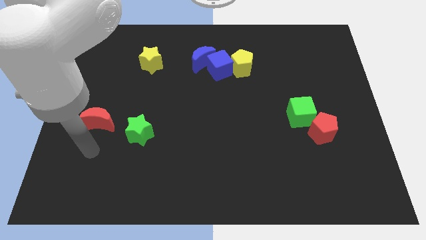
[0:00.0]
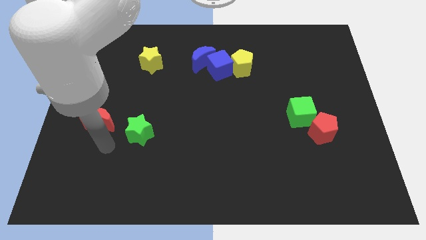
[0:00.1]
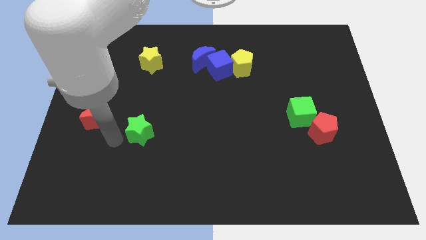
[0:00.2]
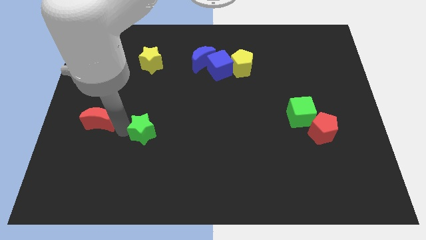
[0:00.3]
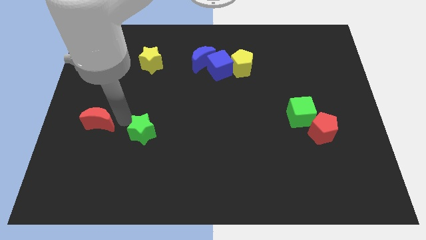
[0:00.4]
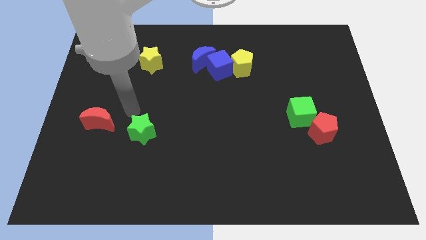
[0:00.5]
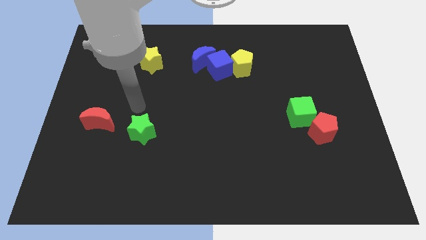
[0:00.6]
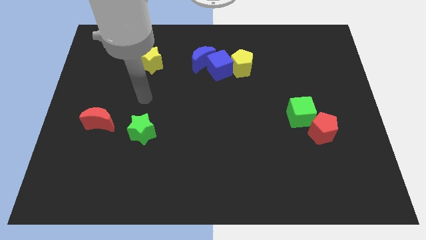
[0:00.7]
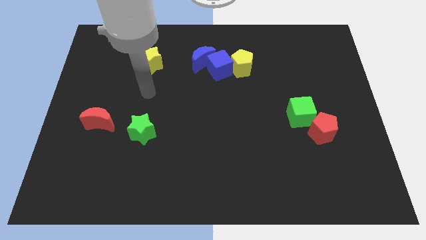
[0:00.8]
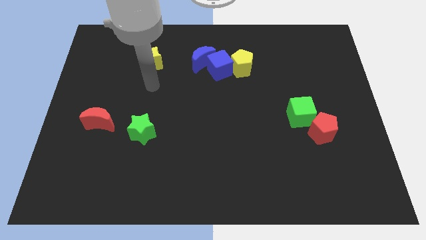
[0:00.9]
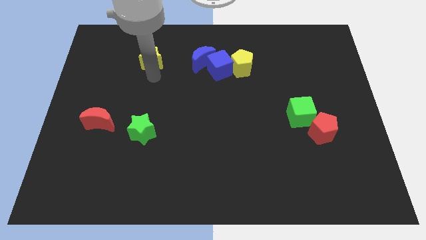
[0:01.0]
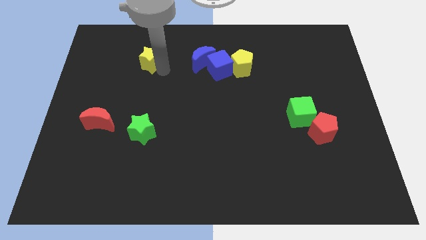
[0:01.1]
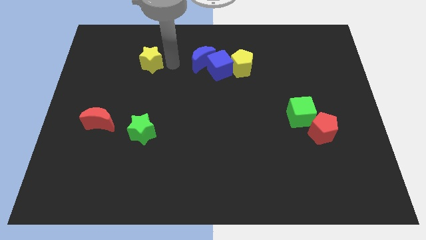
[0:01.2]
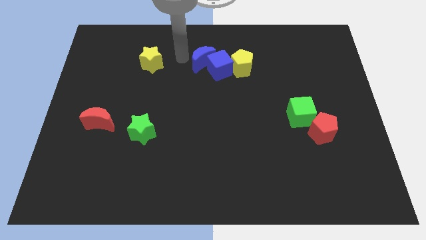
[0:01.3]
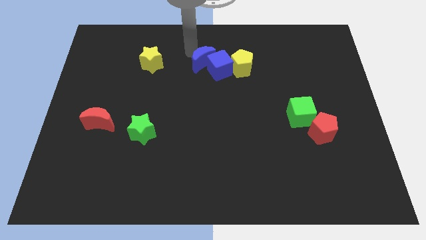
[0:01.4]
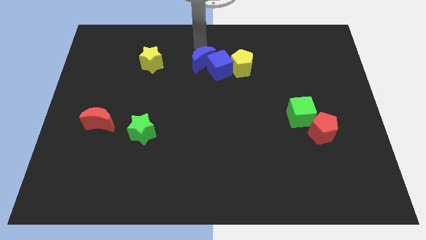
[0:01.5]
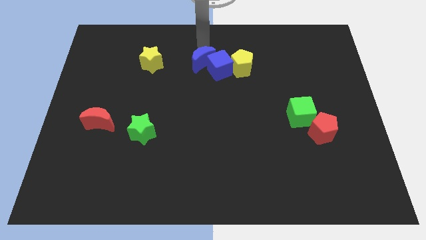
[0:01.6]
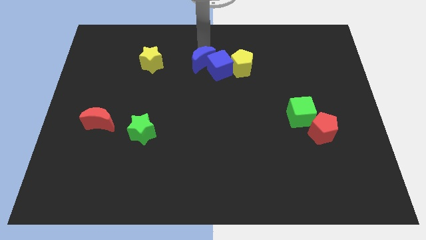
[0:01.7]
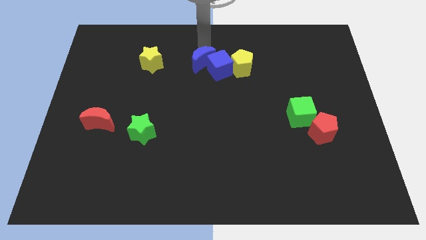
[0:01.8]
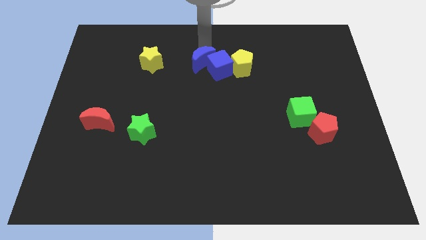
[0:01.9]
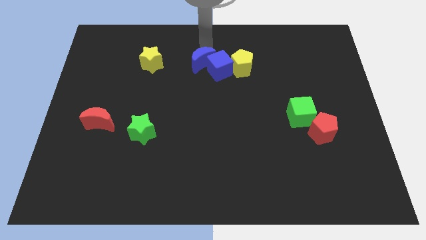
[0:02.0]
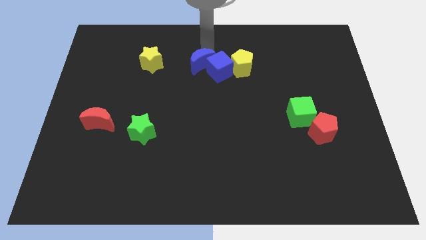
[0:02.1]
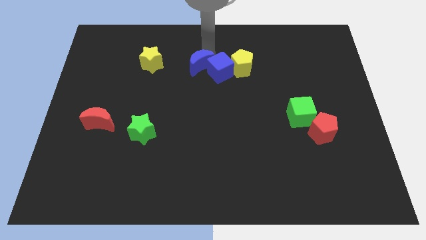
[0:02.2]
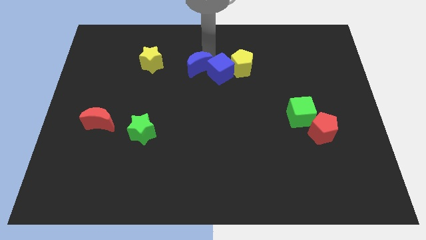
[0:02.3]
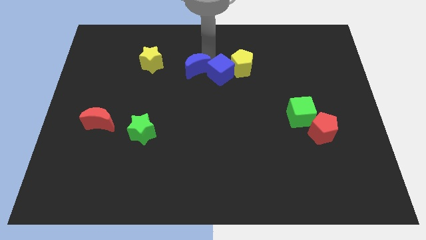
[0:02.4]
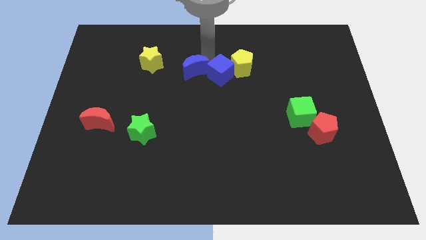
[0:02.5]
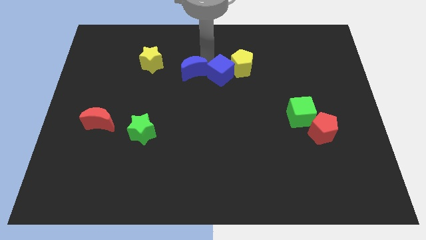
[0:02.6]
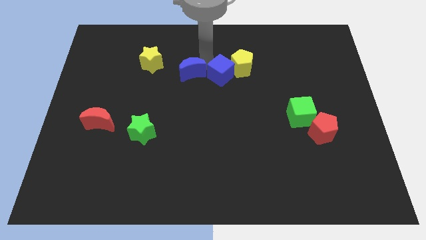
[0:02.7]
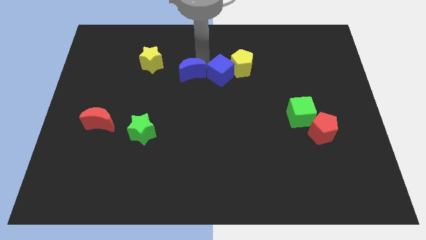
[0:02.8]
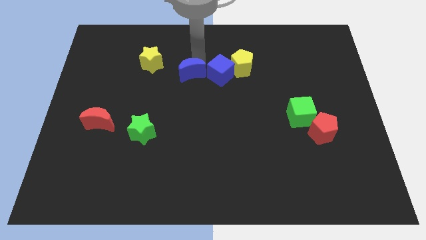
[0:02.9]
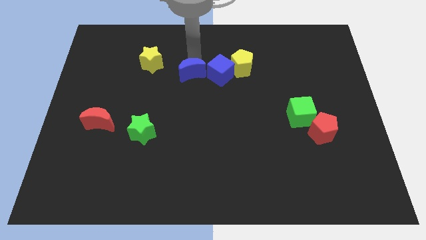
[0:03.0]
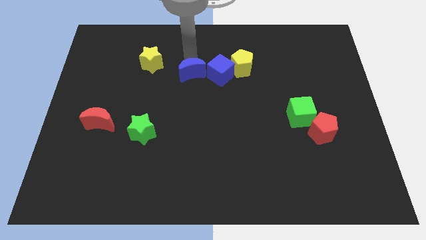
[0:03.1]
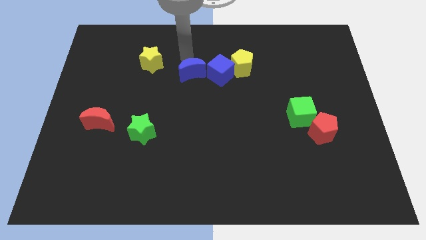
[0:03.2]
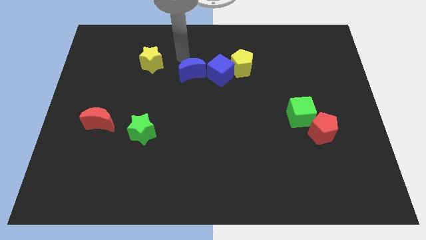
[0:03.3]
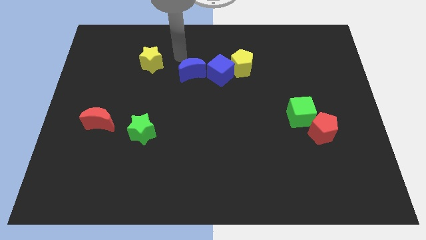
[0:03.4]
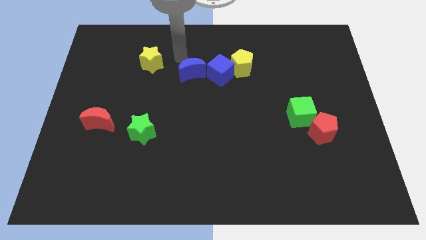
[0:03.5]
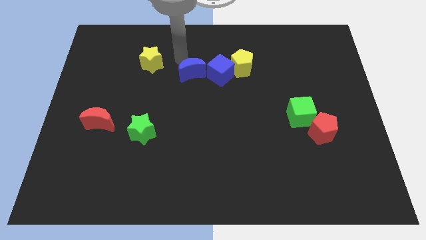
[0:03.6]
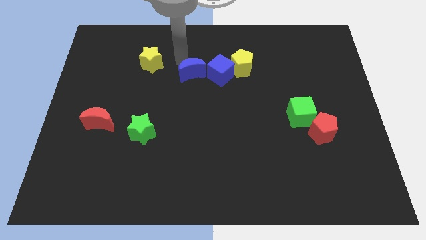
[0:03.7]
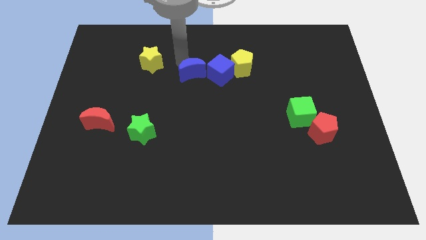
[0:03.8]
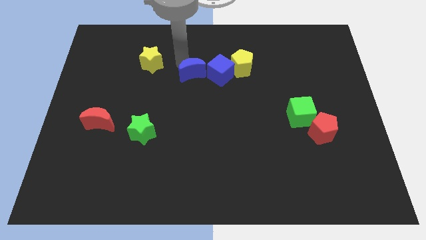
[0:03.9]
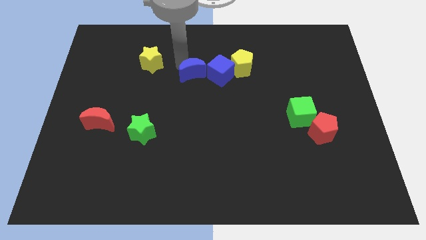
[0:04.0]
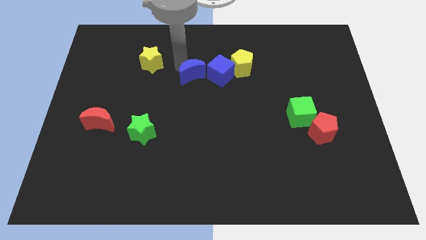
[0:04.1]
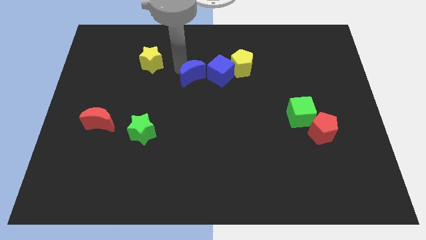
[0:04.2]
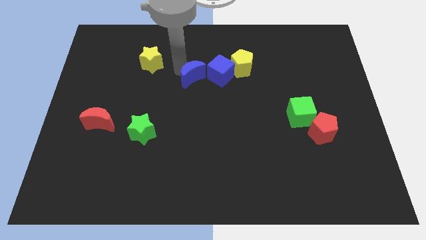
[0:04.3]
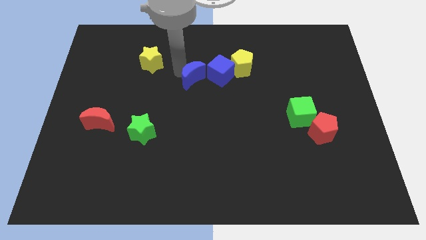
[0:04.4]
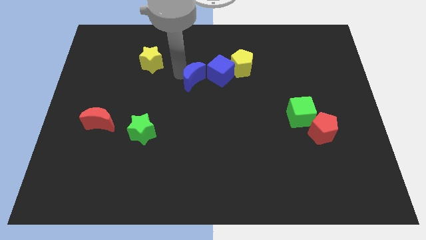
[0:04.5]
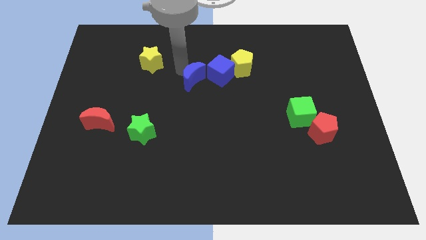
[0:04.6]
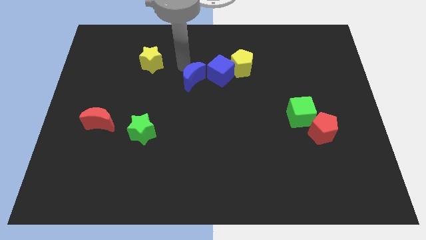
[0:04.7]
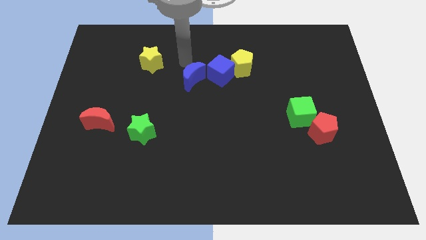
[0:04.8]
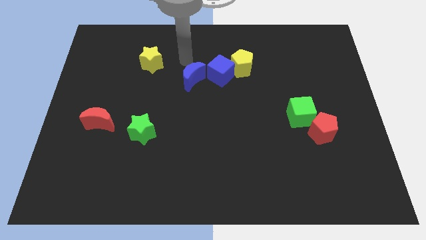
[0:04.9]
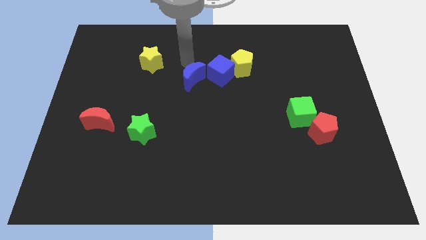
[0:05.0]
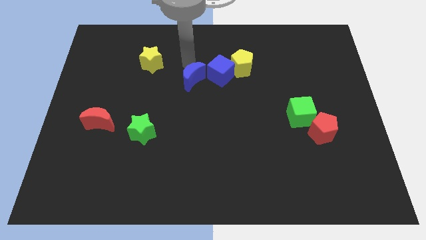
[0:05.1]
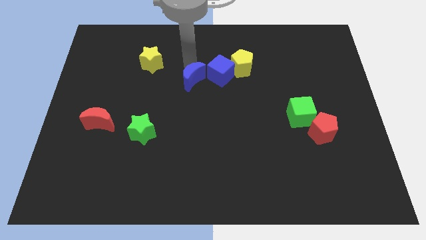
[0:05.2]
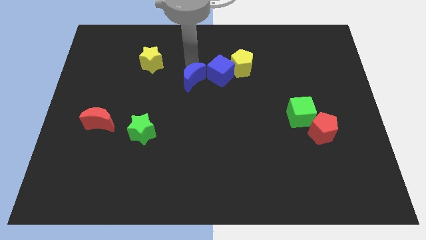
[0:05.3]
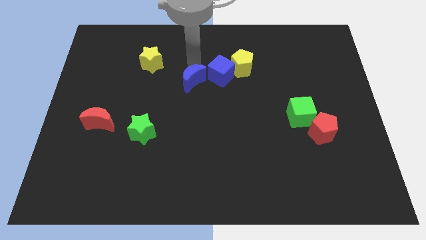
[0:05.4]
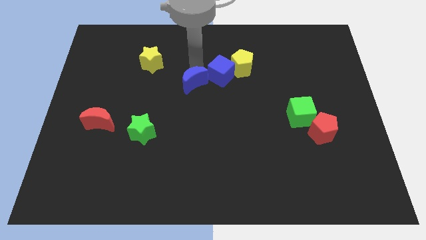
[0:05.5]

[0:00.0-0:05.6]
slide the blue moon somewhat down

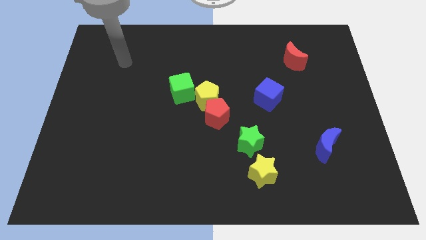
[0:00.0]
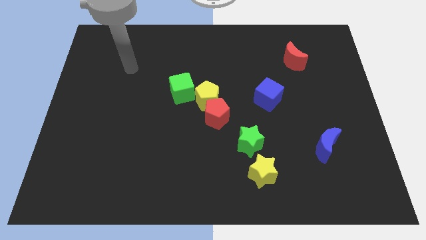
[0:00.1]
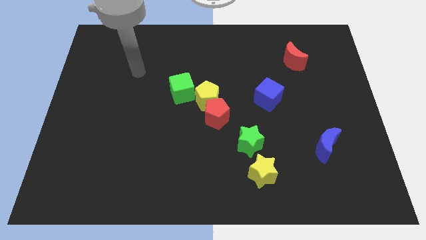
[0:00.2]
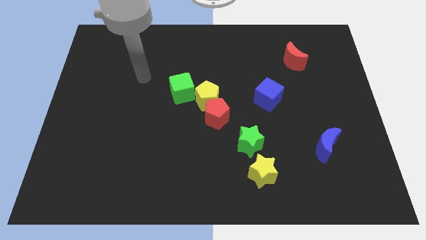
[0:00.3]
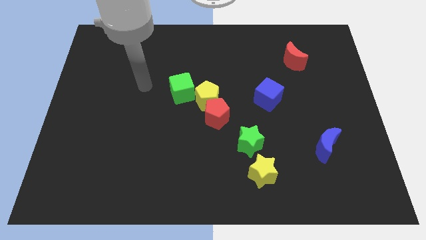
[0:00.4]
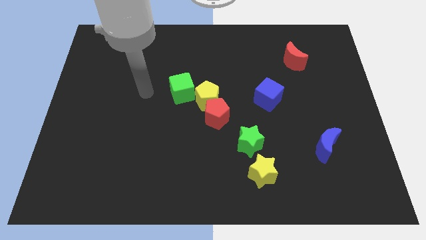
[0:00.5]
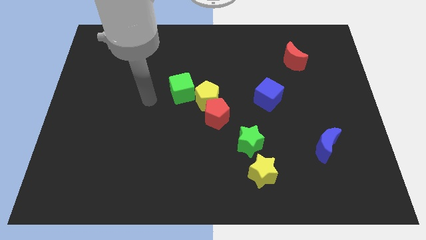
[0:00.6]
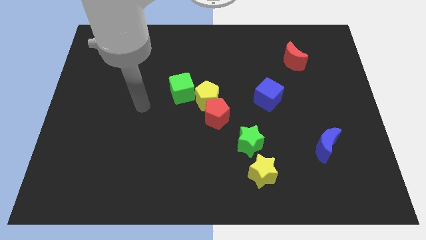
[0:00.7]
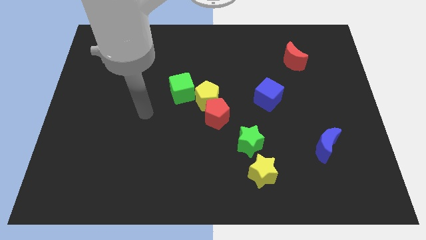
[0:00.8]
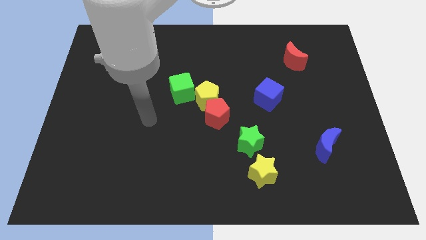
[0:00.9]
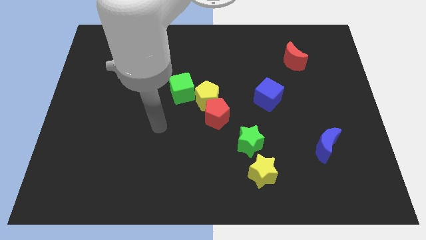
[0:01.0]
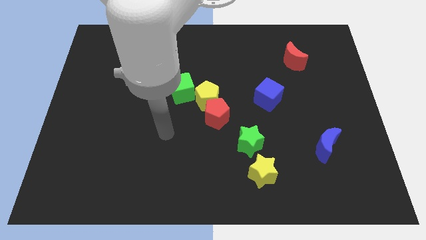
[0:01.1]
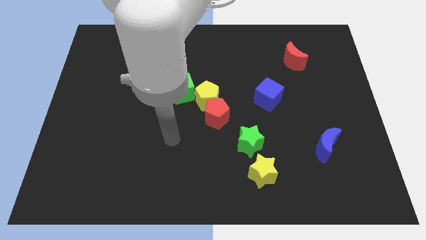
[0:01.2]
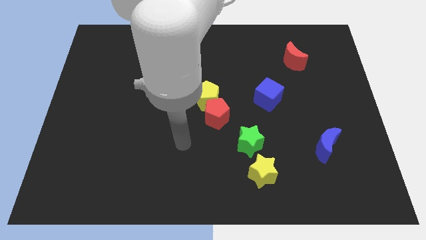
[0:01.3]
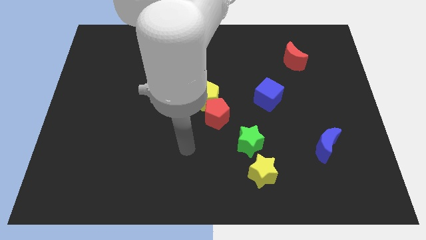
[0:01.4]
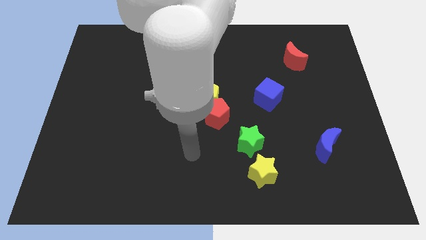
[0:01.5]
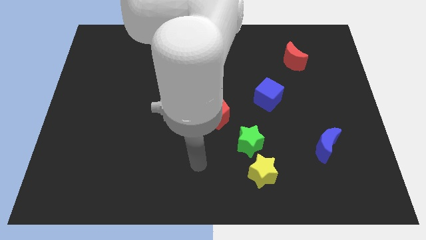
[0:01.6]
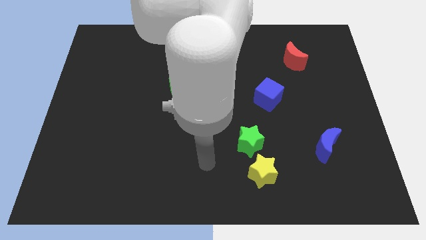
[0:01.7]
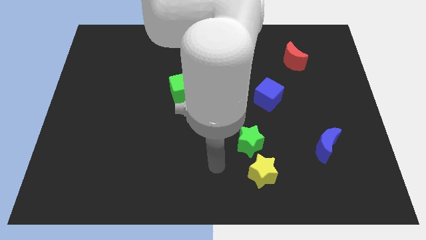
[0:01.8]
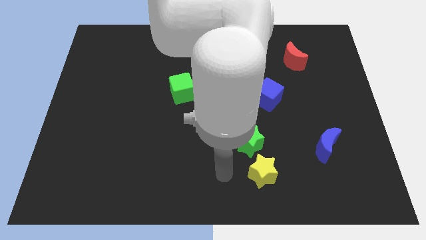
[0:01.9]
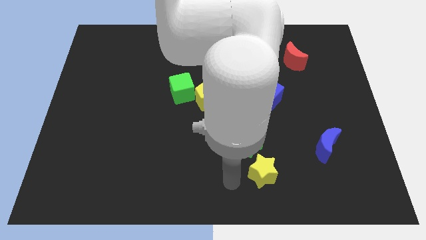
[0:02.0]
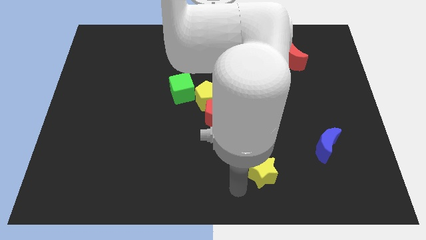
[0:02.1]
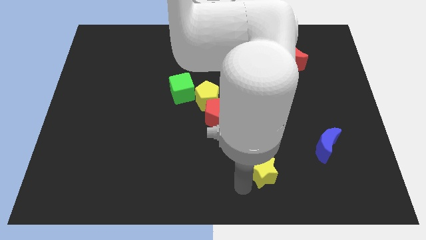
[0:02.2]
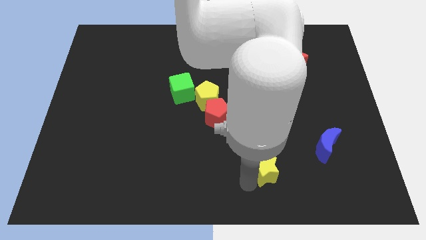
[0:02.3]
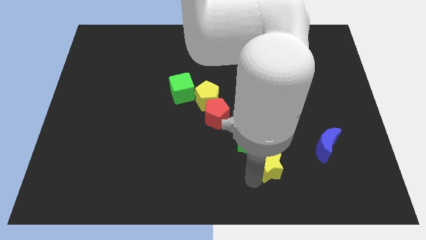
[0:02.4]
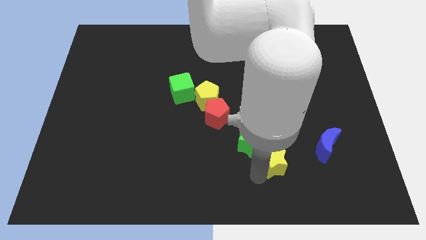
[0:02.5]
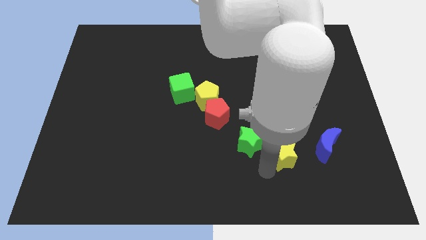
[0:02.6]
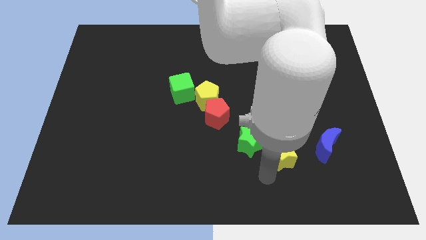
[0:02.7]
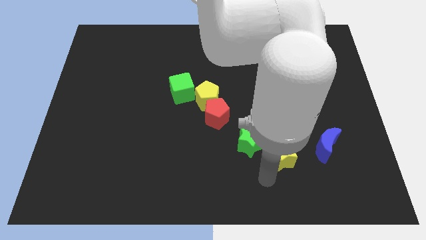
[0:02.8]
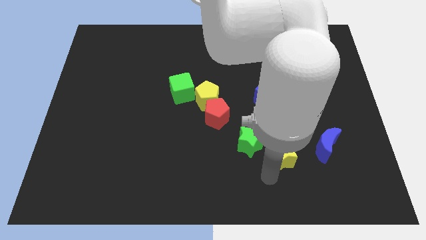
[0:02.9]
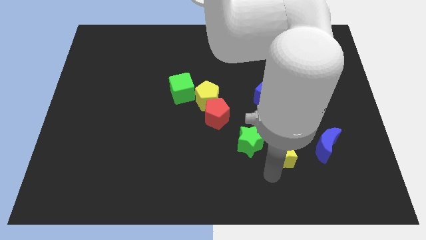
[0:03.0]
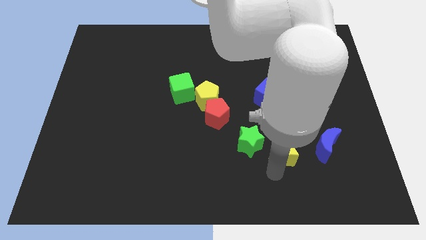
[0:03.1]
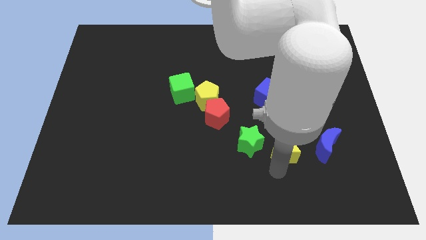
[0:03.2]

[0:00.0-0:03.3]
slide the yellow star a bit upwards and right diagonally
